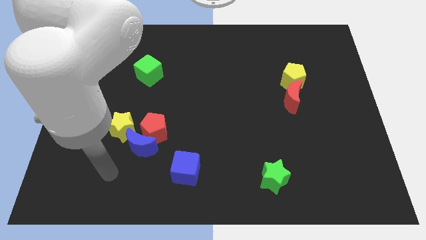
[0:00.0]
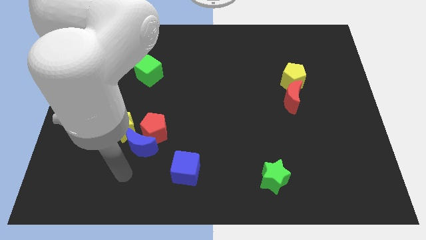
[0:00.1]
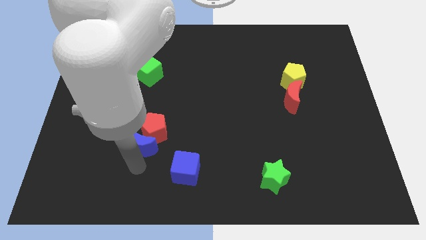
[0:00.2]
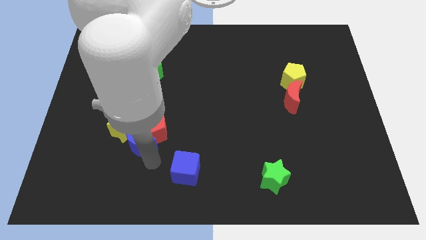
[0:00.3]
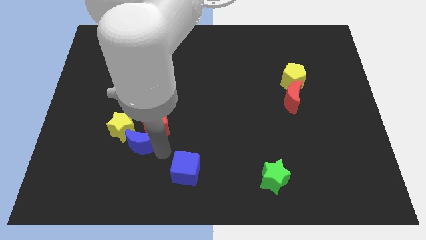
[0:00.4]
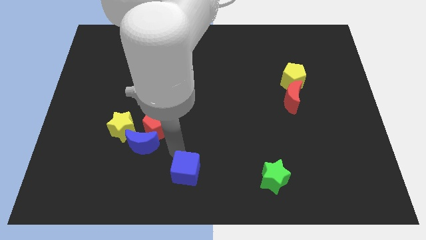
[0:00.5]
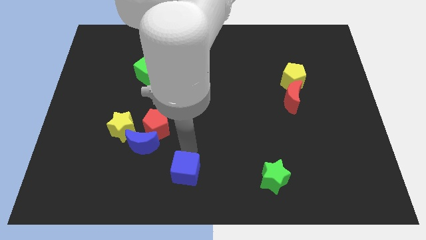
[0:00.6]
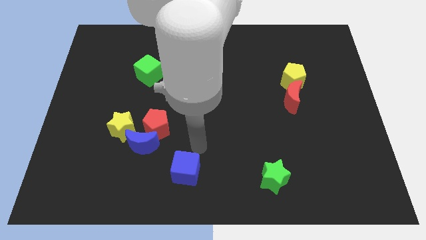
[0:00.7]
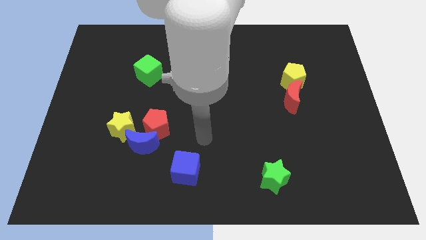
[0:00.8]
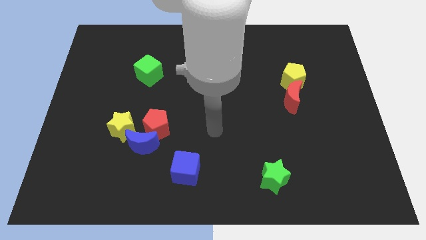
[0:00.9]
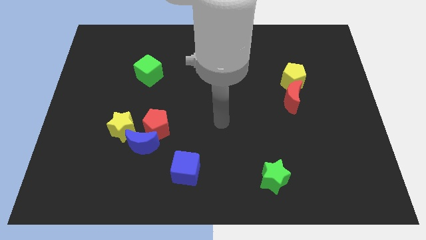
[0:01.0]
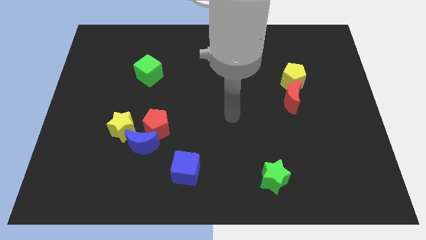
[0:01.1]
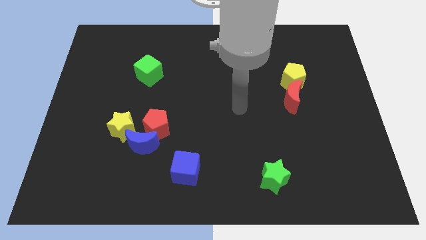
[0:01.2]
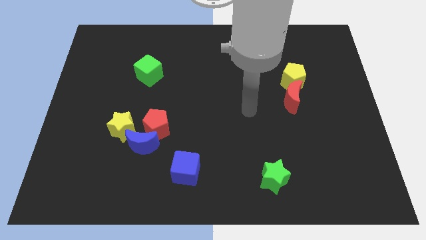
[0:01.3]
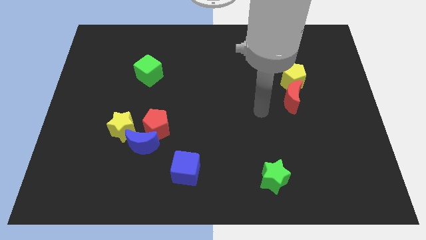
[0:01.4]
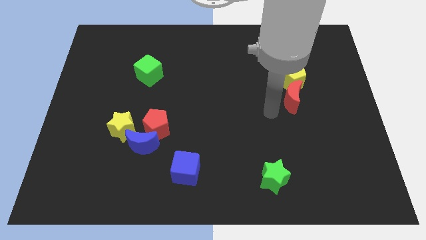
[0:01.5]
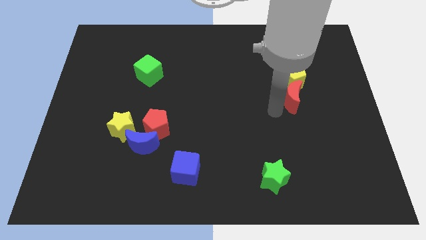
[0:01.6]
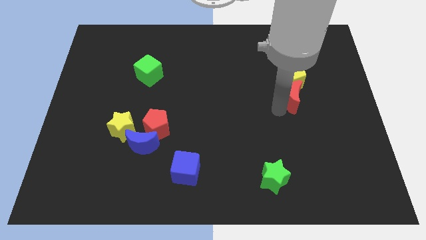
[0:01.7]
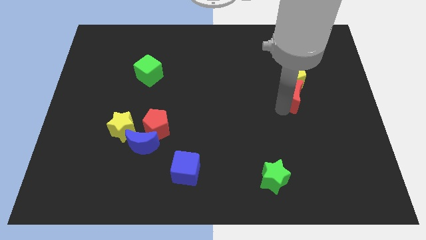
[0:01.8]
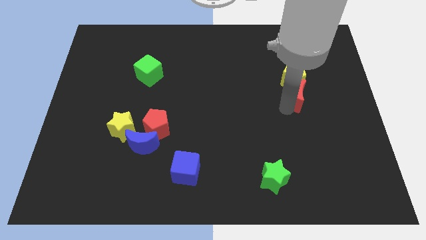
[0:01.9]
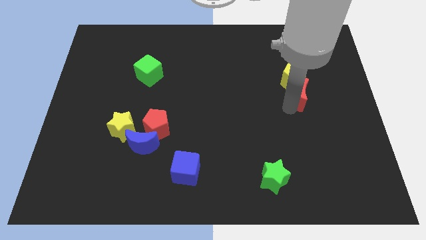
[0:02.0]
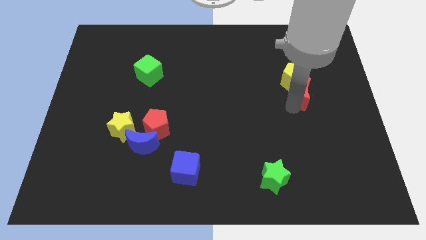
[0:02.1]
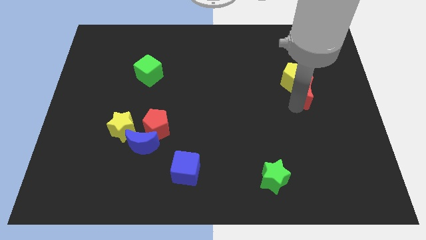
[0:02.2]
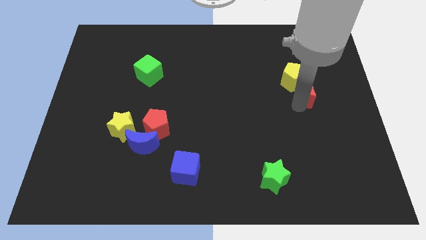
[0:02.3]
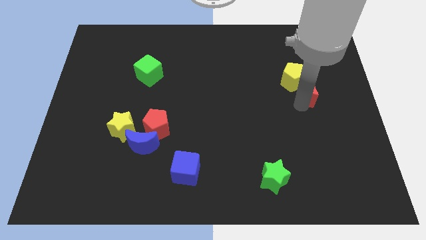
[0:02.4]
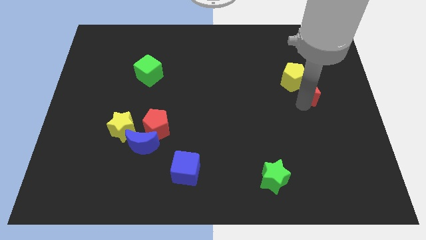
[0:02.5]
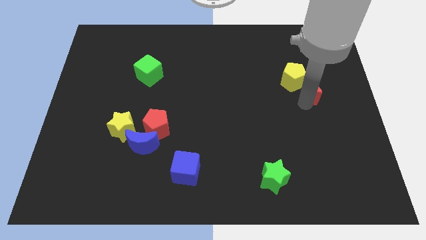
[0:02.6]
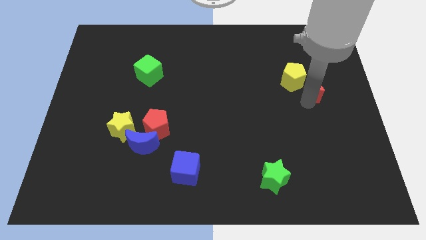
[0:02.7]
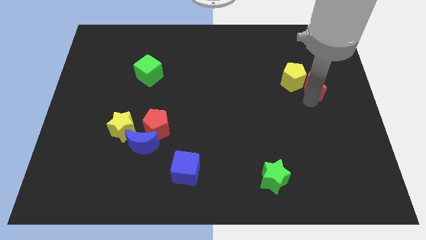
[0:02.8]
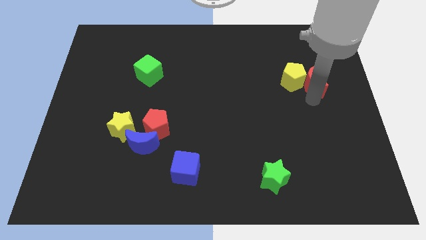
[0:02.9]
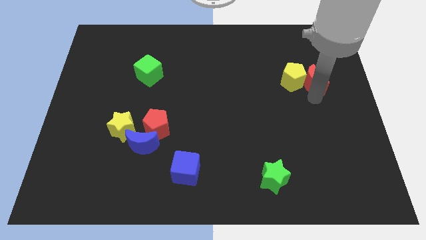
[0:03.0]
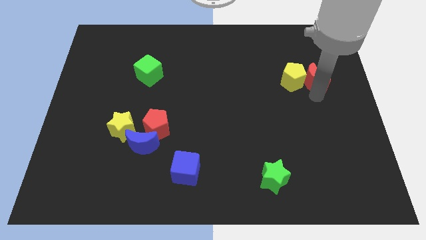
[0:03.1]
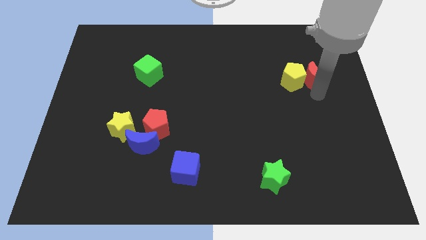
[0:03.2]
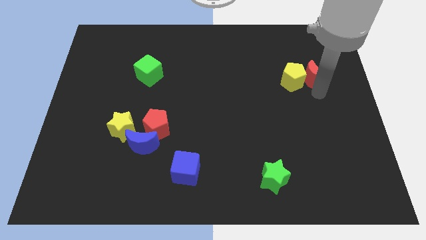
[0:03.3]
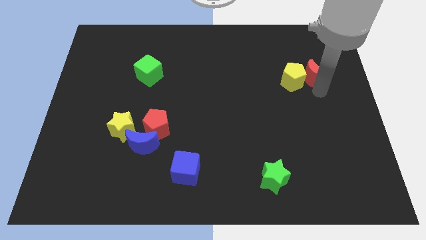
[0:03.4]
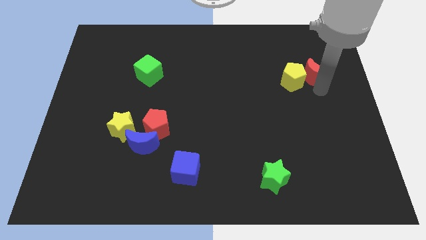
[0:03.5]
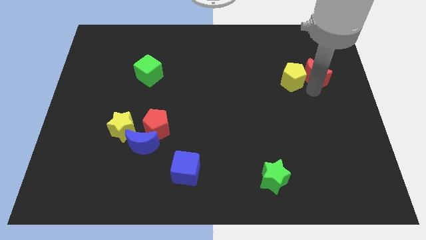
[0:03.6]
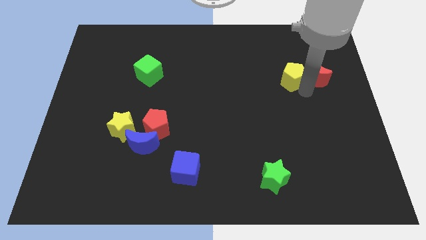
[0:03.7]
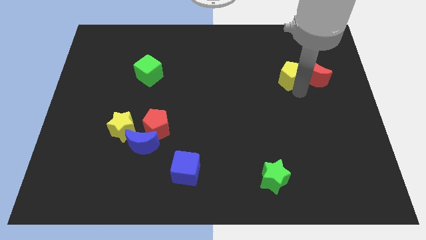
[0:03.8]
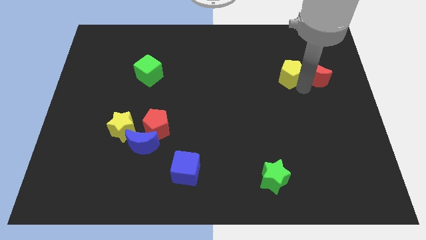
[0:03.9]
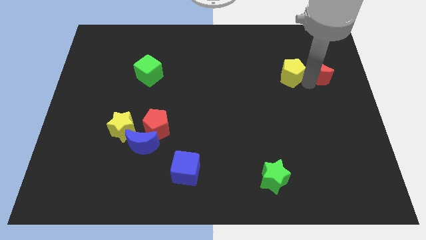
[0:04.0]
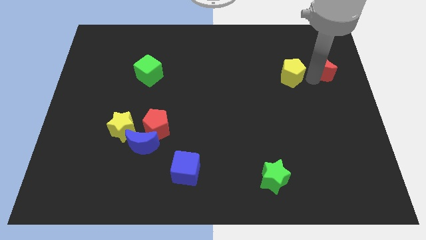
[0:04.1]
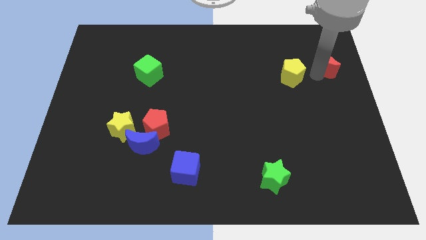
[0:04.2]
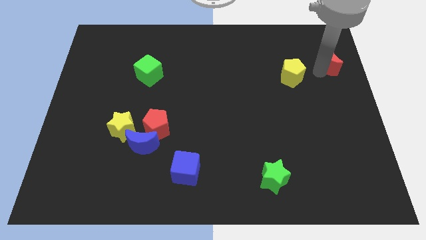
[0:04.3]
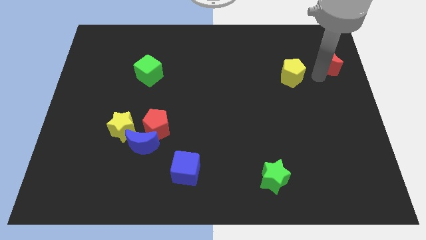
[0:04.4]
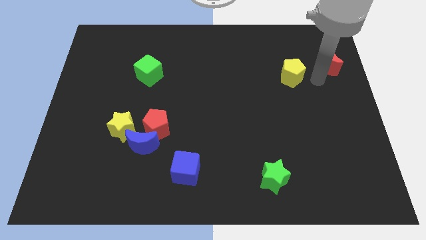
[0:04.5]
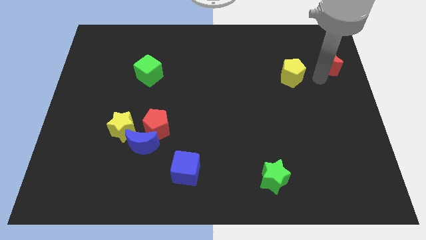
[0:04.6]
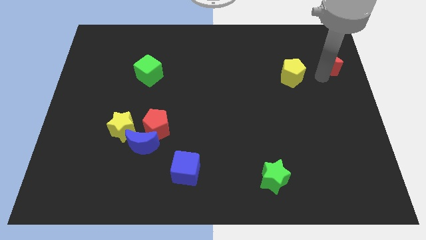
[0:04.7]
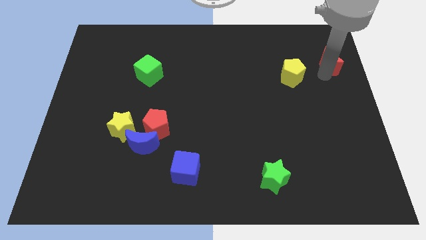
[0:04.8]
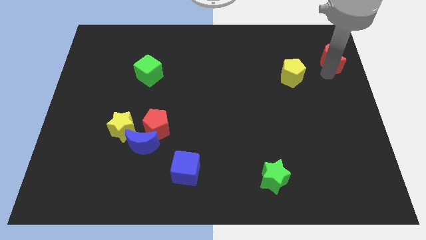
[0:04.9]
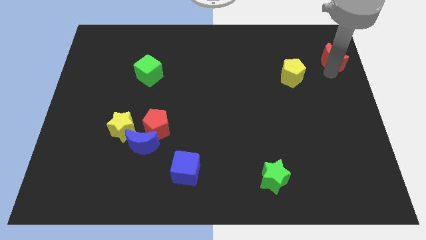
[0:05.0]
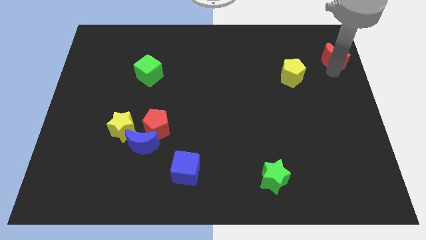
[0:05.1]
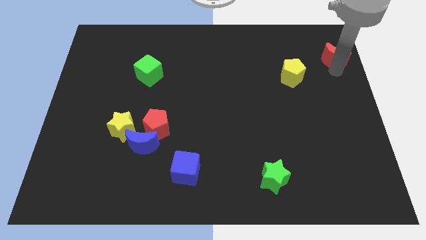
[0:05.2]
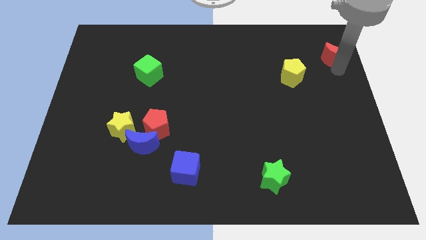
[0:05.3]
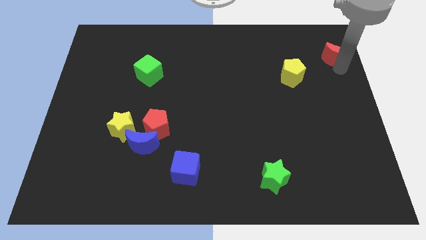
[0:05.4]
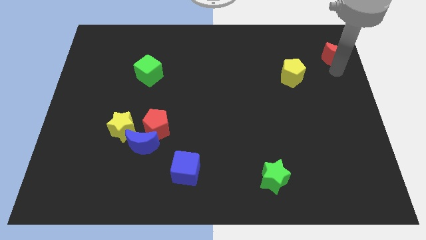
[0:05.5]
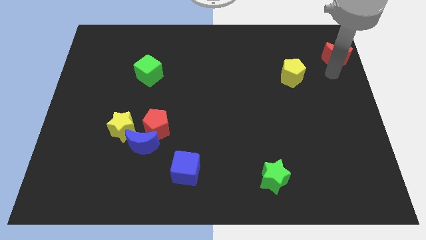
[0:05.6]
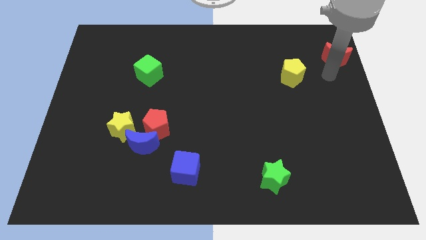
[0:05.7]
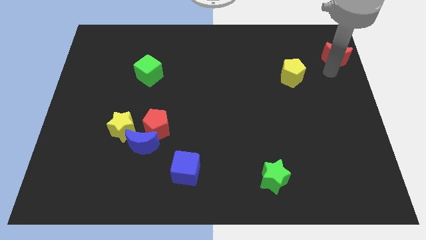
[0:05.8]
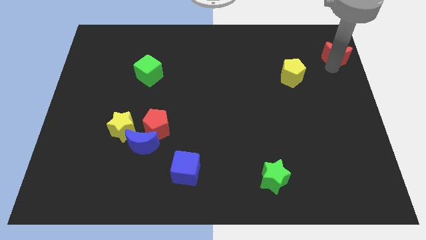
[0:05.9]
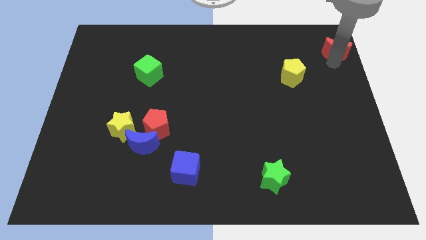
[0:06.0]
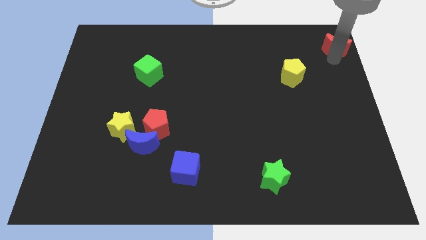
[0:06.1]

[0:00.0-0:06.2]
put the red moon to the top right
